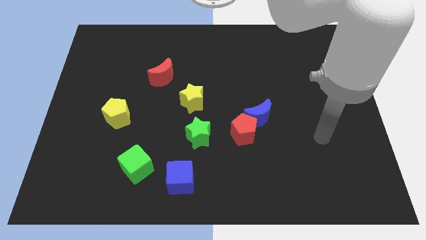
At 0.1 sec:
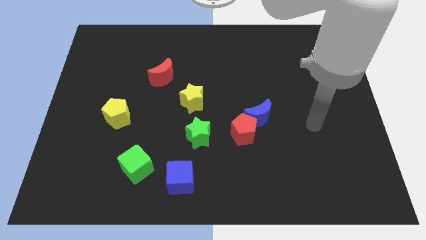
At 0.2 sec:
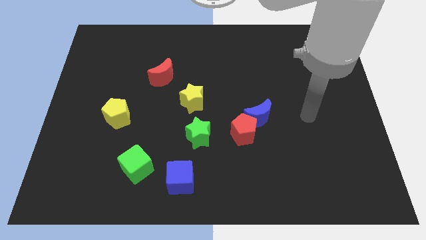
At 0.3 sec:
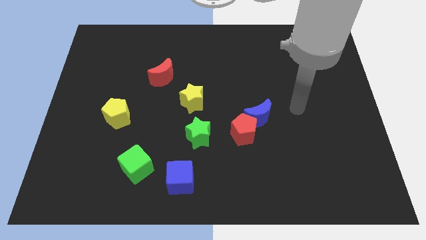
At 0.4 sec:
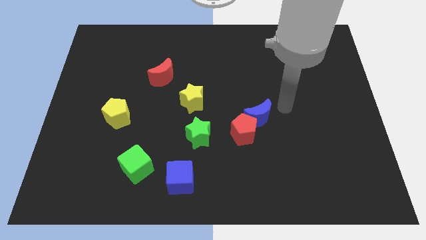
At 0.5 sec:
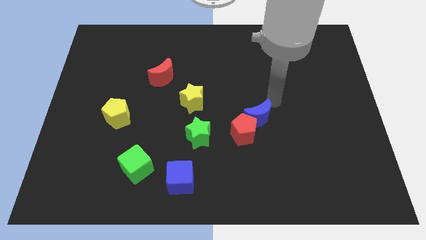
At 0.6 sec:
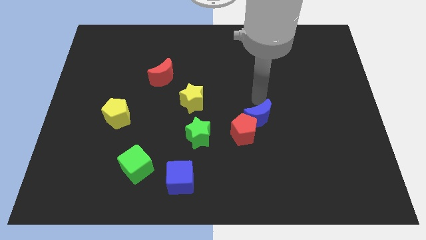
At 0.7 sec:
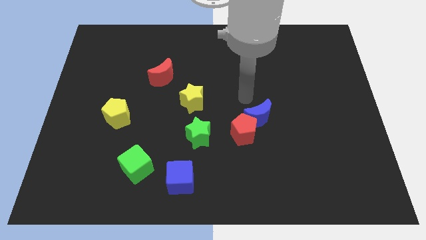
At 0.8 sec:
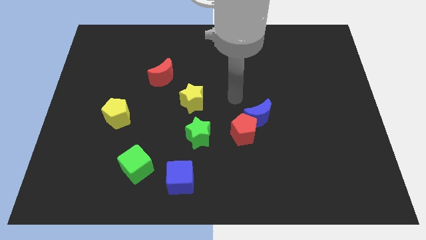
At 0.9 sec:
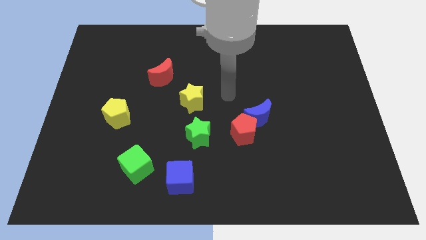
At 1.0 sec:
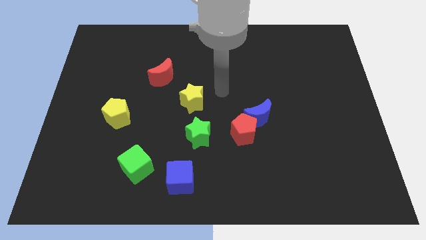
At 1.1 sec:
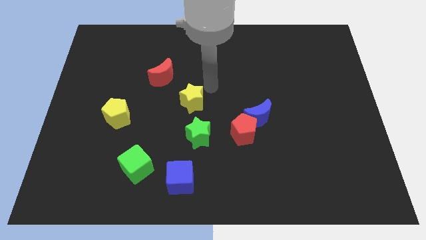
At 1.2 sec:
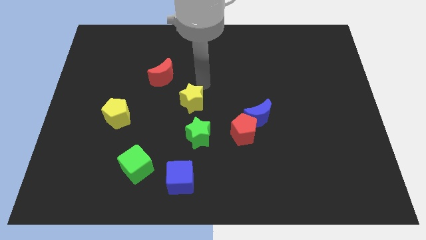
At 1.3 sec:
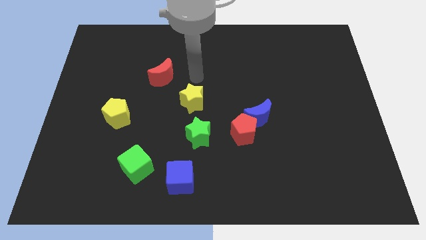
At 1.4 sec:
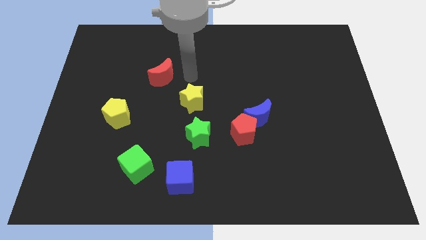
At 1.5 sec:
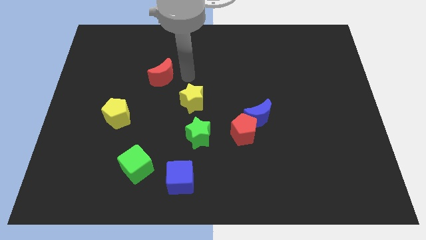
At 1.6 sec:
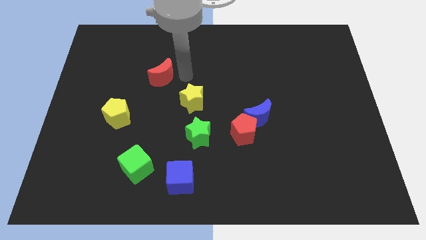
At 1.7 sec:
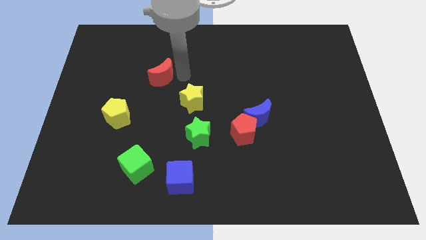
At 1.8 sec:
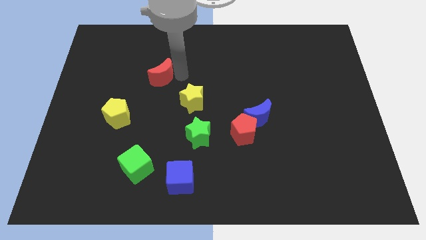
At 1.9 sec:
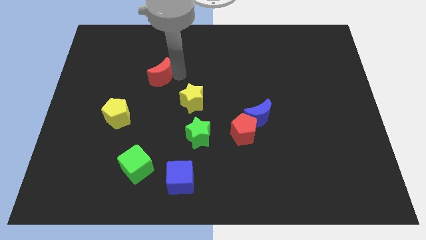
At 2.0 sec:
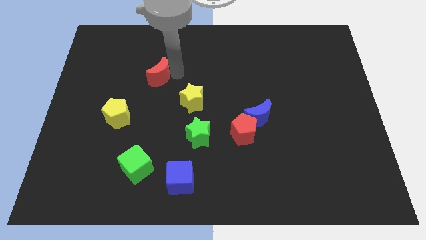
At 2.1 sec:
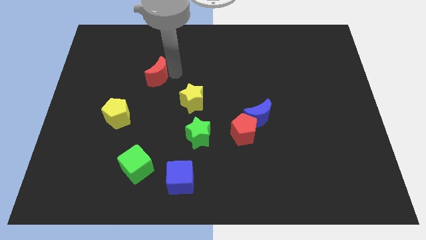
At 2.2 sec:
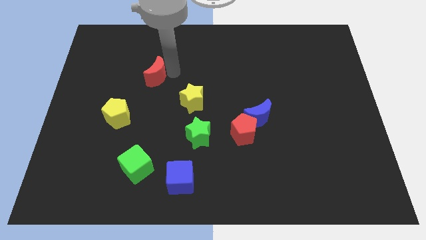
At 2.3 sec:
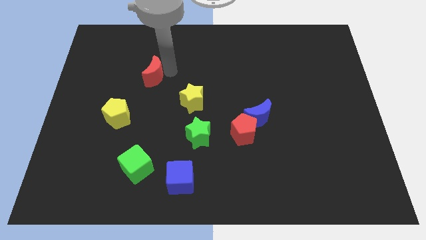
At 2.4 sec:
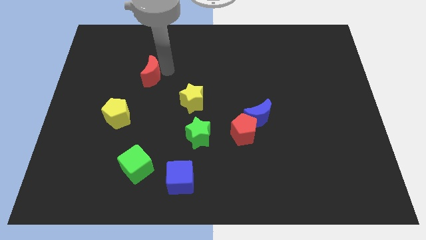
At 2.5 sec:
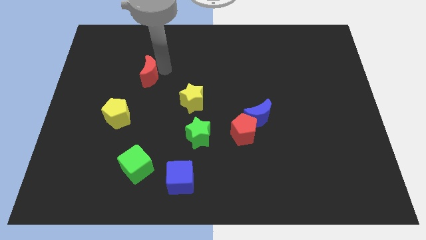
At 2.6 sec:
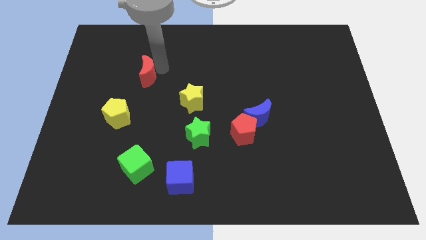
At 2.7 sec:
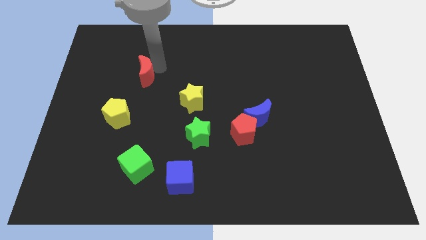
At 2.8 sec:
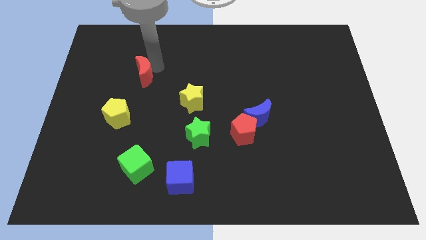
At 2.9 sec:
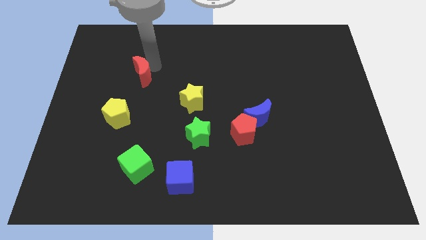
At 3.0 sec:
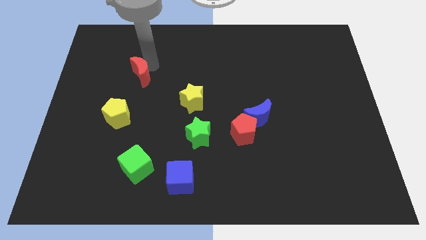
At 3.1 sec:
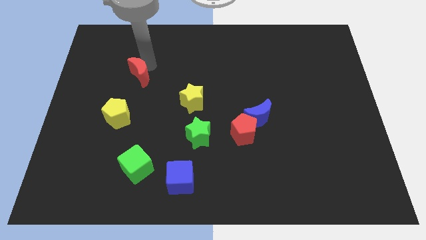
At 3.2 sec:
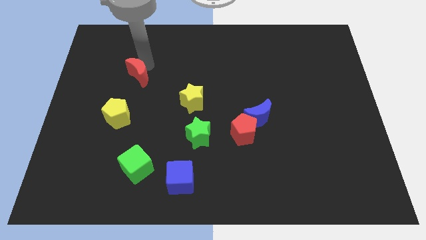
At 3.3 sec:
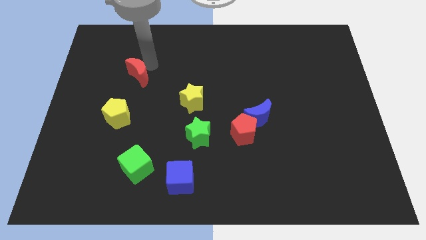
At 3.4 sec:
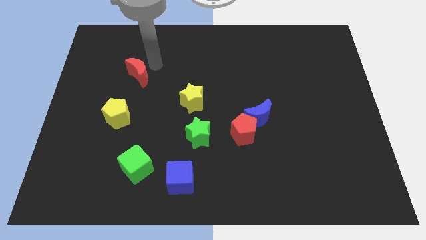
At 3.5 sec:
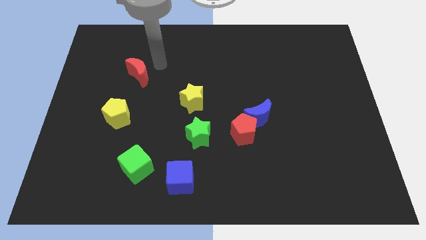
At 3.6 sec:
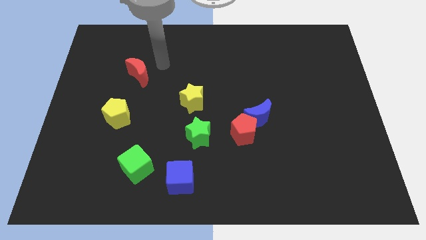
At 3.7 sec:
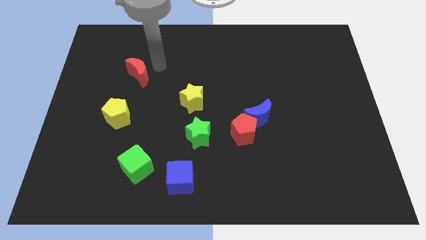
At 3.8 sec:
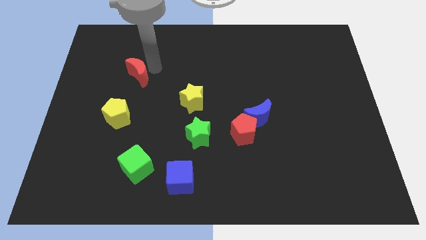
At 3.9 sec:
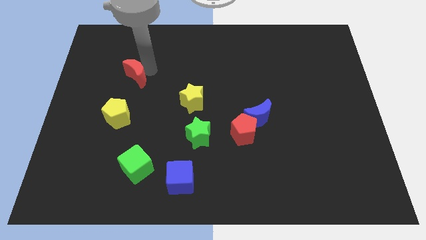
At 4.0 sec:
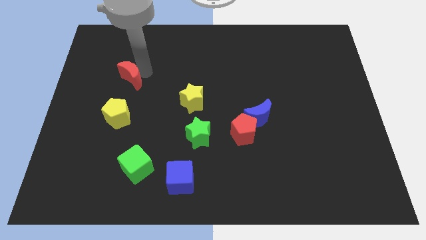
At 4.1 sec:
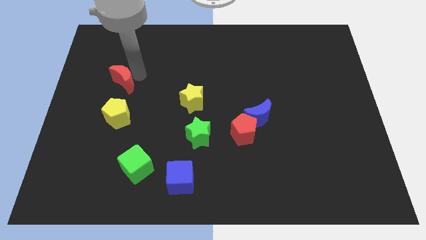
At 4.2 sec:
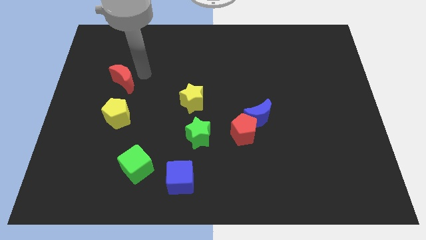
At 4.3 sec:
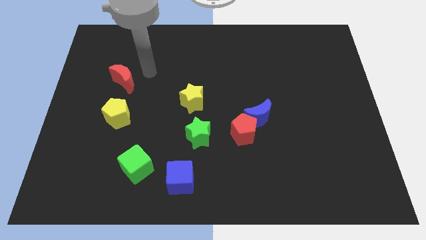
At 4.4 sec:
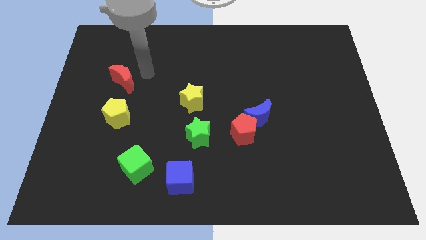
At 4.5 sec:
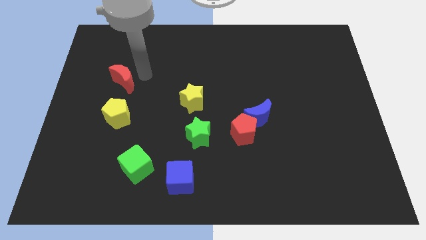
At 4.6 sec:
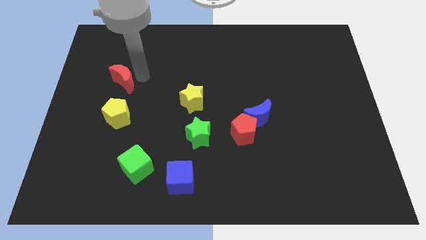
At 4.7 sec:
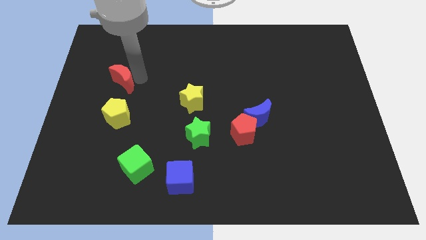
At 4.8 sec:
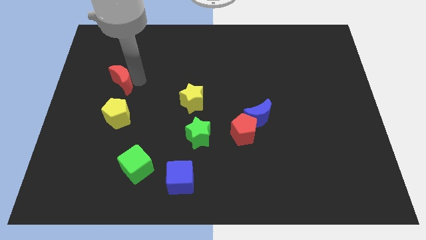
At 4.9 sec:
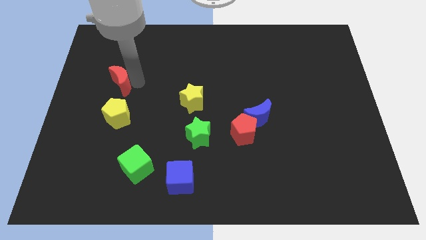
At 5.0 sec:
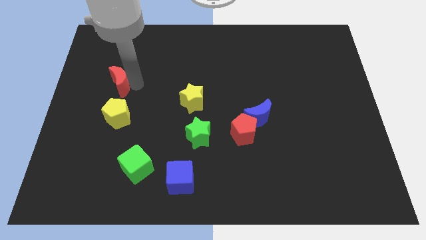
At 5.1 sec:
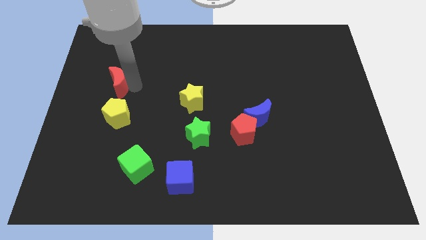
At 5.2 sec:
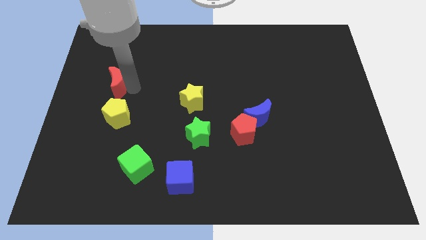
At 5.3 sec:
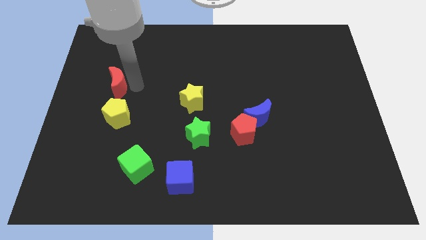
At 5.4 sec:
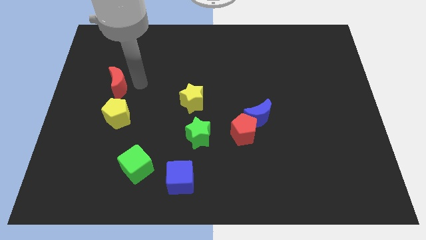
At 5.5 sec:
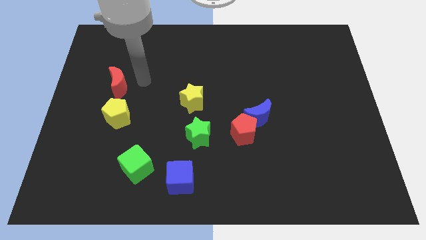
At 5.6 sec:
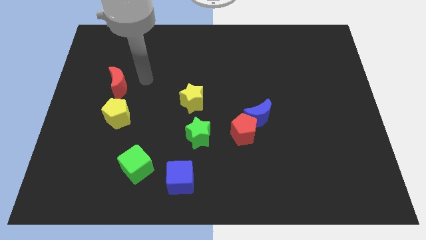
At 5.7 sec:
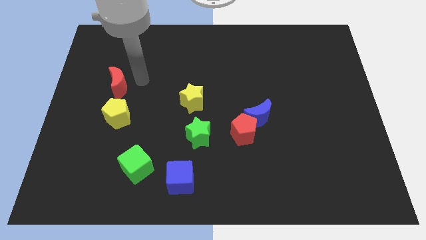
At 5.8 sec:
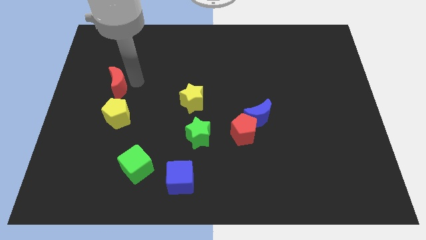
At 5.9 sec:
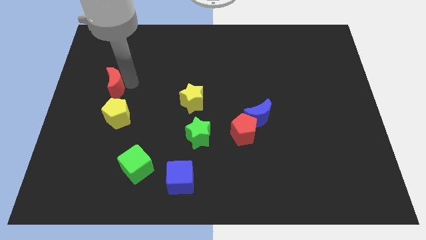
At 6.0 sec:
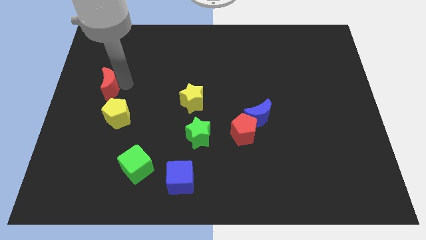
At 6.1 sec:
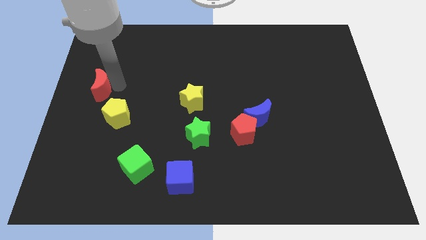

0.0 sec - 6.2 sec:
push the red moon to the left side of the board

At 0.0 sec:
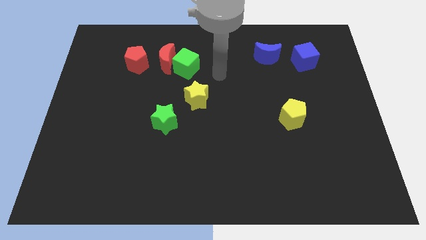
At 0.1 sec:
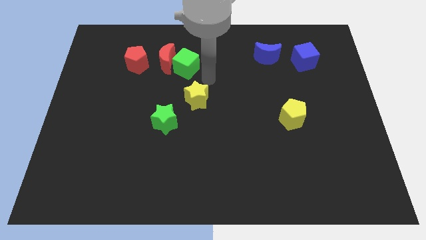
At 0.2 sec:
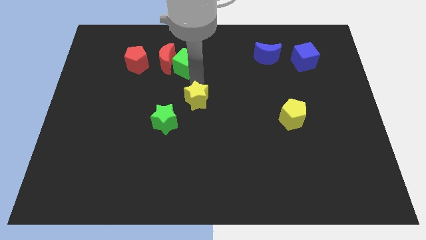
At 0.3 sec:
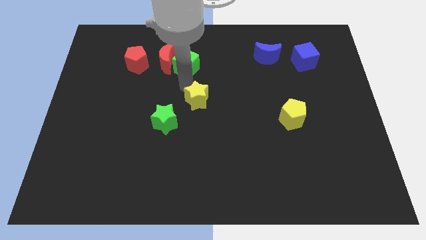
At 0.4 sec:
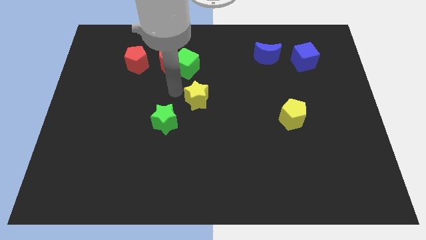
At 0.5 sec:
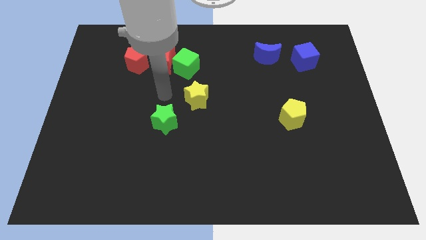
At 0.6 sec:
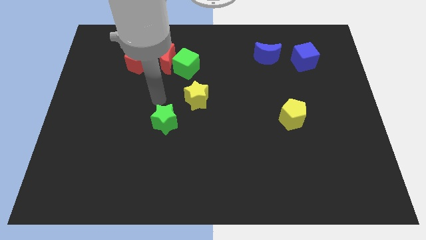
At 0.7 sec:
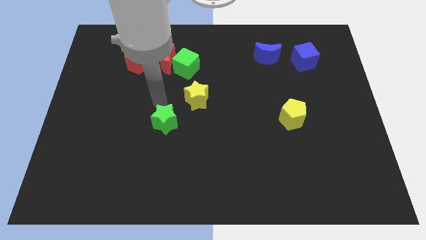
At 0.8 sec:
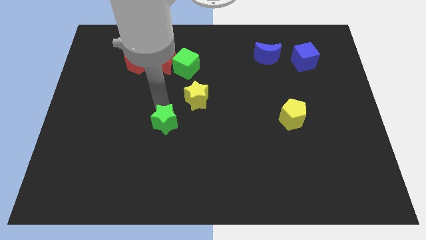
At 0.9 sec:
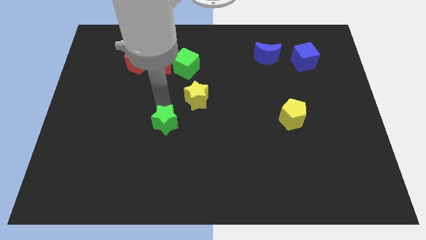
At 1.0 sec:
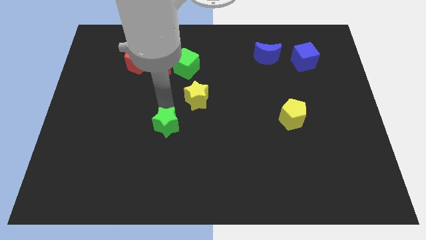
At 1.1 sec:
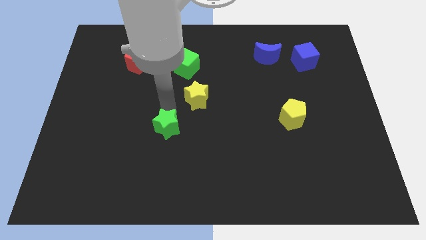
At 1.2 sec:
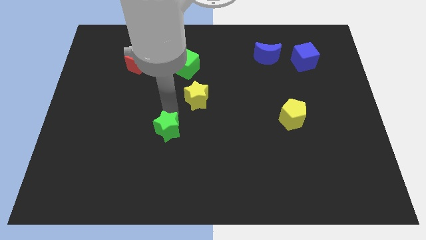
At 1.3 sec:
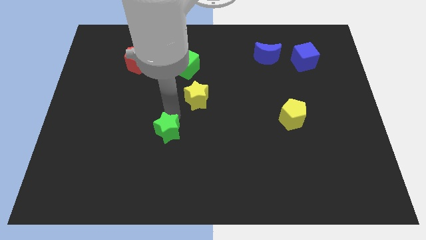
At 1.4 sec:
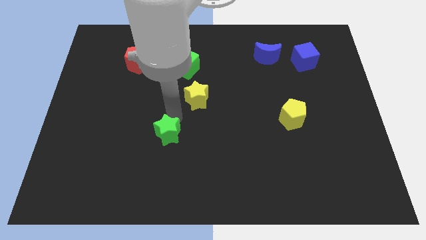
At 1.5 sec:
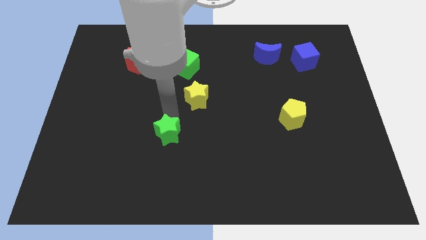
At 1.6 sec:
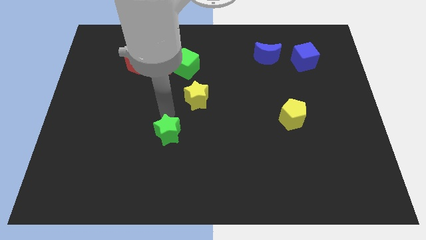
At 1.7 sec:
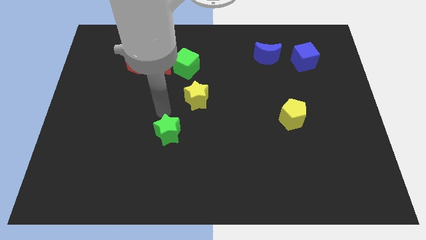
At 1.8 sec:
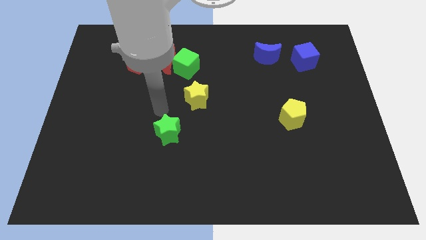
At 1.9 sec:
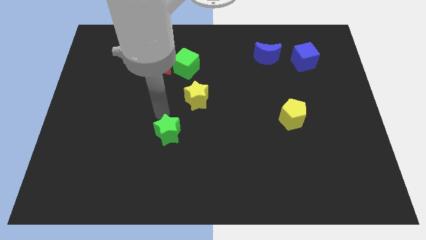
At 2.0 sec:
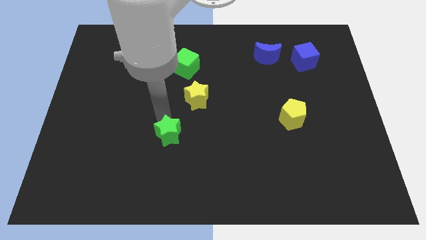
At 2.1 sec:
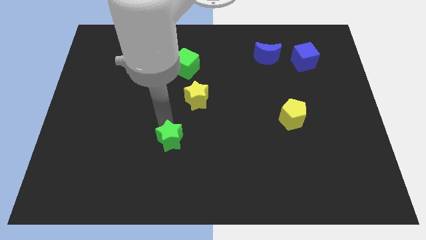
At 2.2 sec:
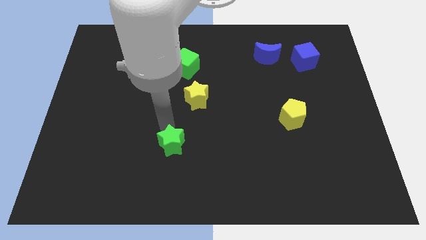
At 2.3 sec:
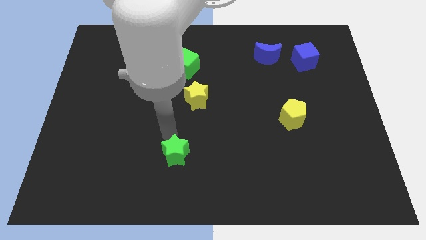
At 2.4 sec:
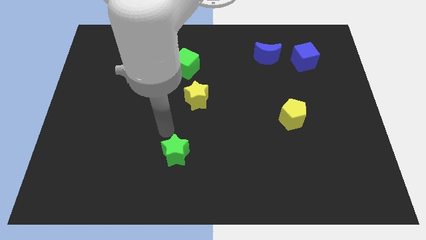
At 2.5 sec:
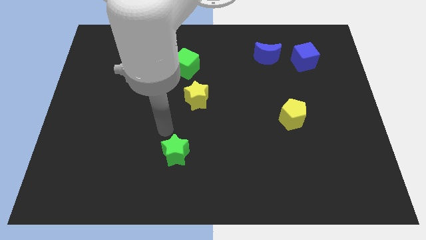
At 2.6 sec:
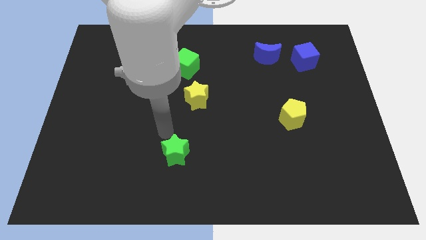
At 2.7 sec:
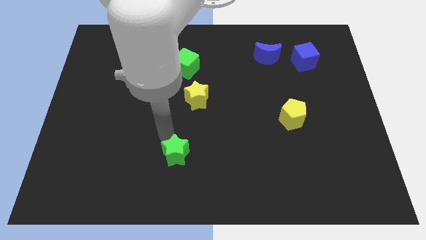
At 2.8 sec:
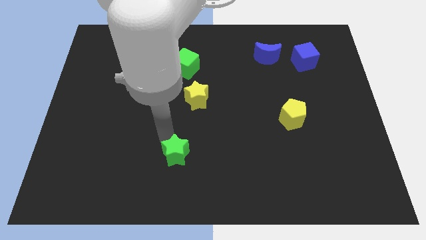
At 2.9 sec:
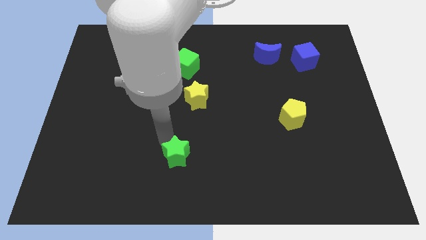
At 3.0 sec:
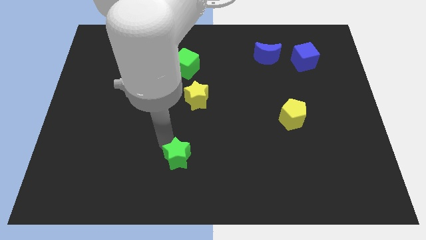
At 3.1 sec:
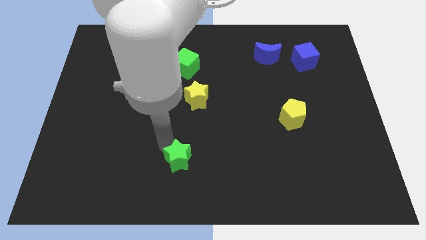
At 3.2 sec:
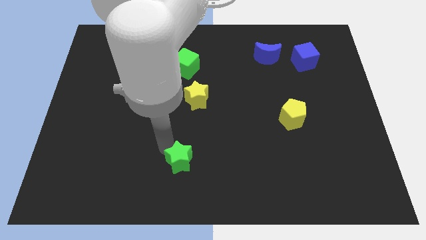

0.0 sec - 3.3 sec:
move the green star to the bottom side
